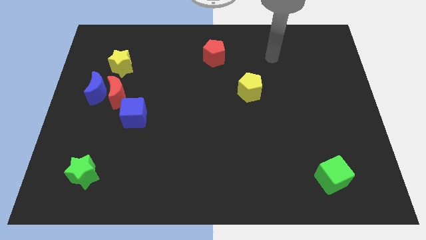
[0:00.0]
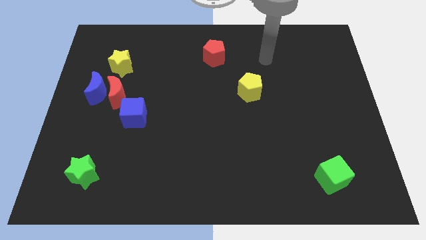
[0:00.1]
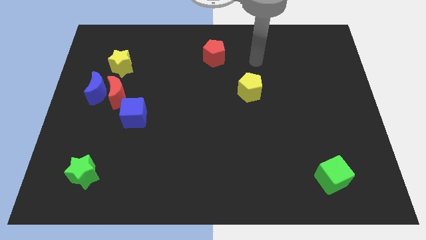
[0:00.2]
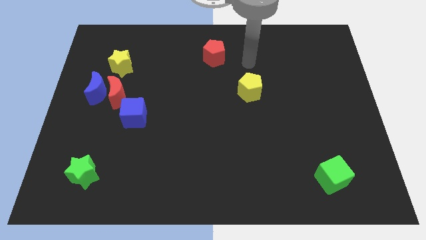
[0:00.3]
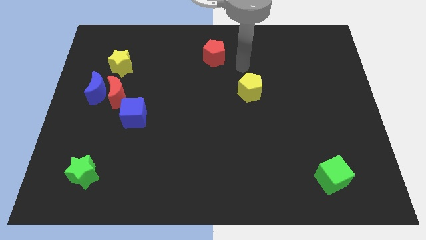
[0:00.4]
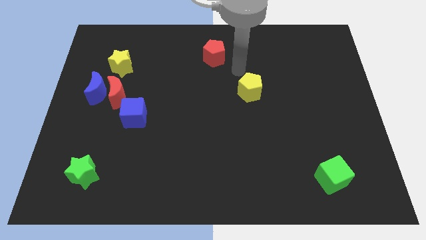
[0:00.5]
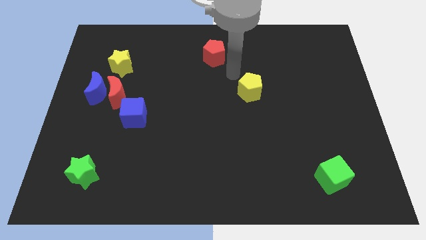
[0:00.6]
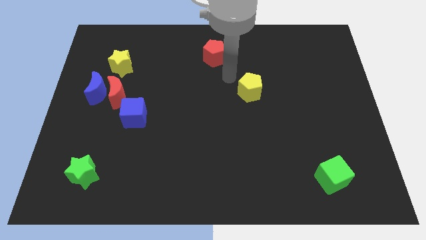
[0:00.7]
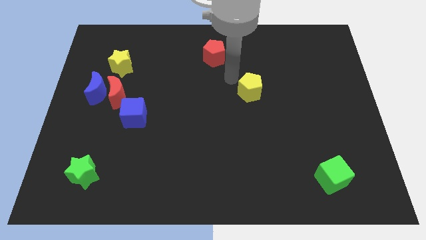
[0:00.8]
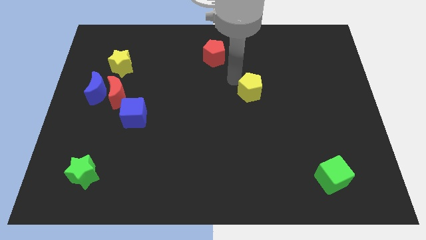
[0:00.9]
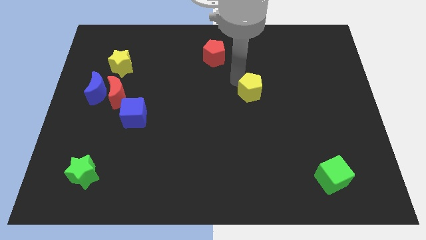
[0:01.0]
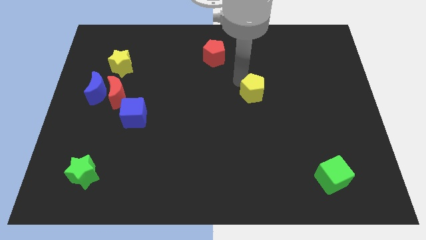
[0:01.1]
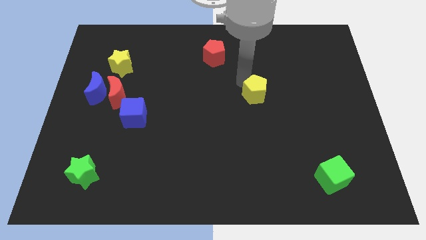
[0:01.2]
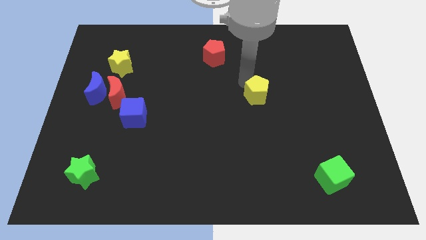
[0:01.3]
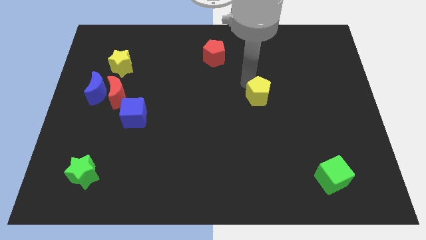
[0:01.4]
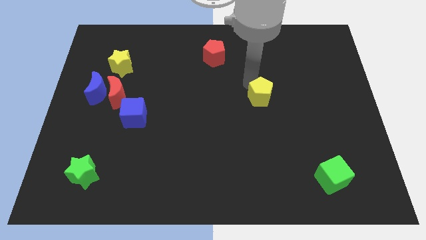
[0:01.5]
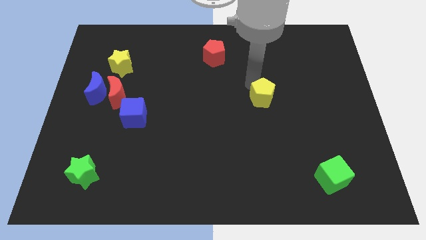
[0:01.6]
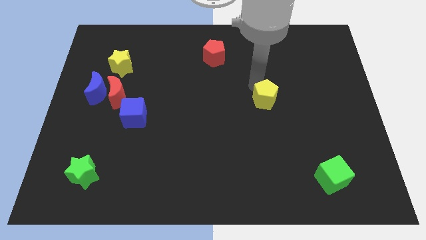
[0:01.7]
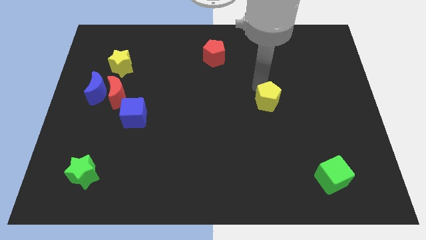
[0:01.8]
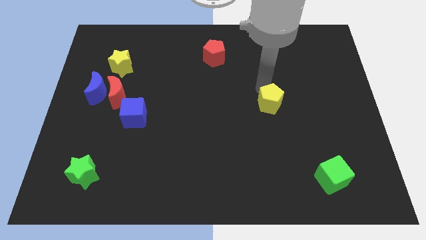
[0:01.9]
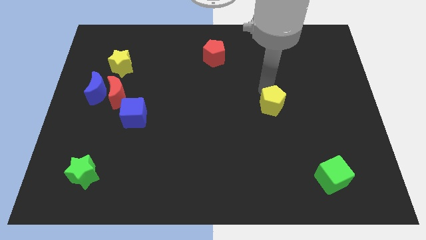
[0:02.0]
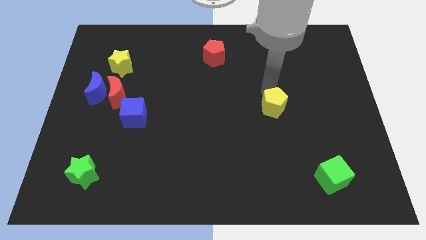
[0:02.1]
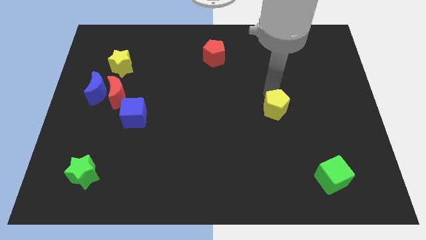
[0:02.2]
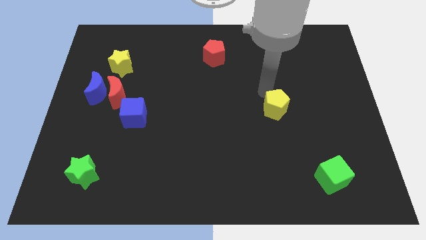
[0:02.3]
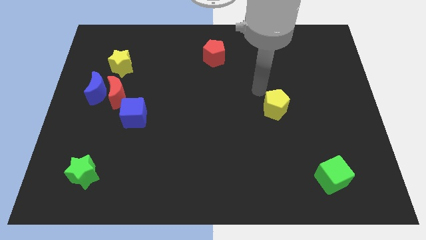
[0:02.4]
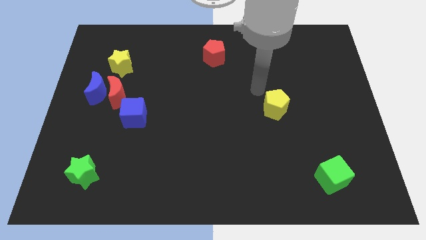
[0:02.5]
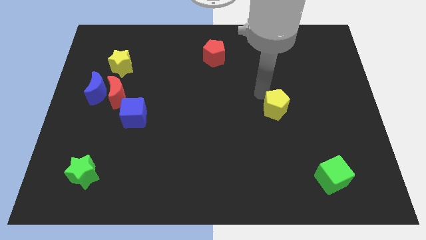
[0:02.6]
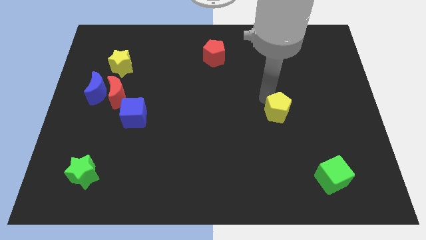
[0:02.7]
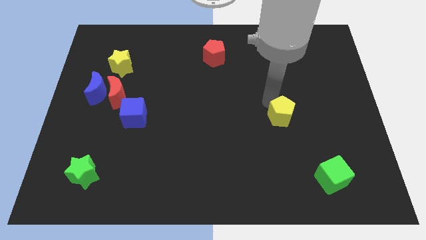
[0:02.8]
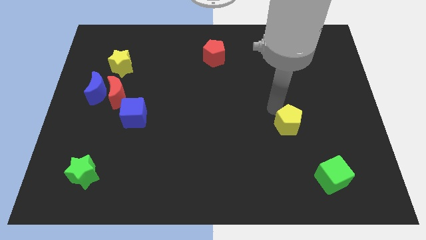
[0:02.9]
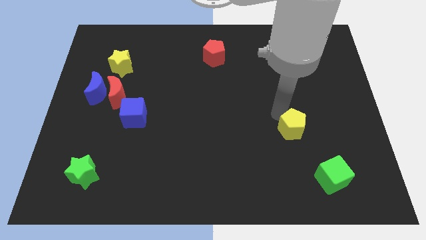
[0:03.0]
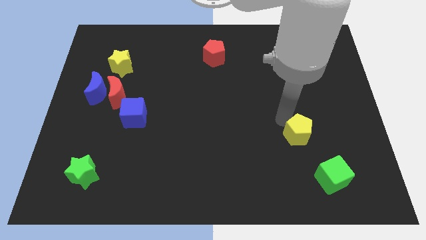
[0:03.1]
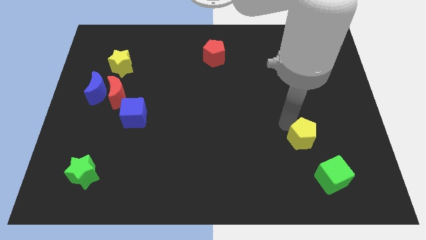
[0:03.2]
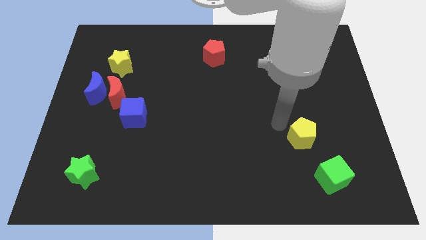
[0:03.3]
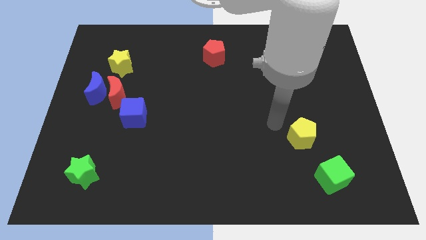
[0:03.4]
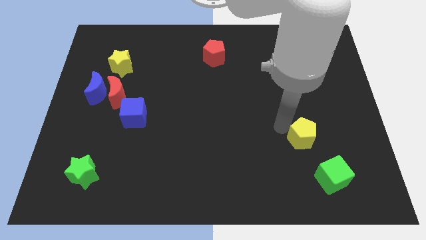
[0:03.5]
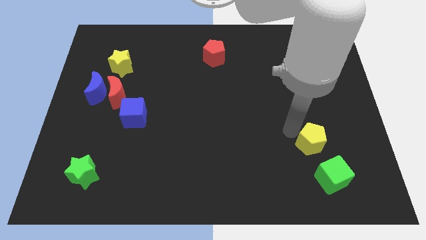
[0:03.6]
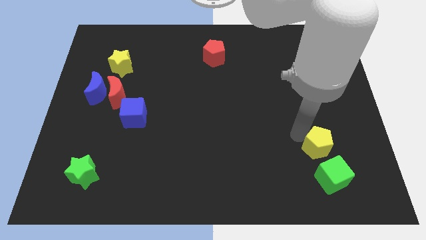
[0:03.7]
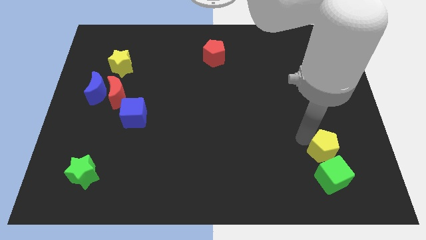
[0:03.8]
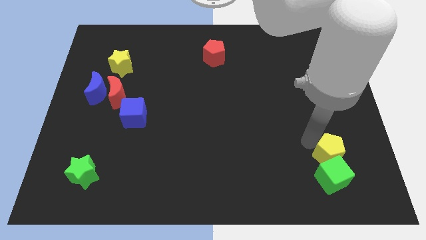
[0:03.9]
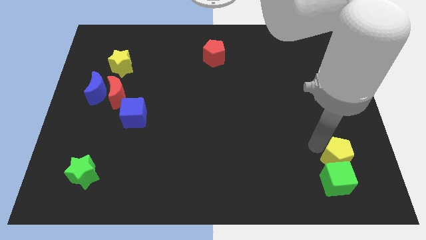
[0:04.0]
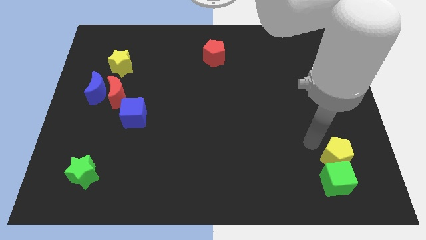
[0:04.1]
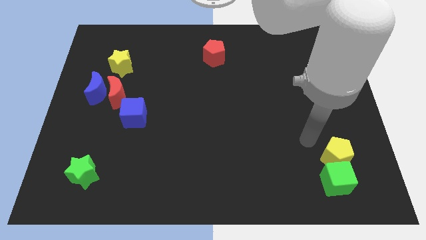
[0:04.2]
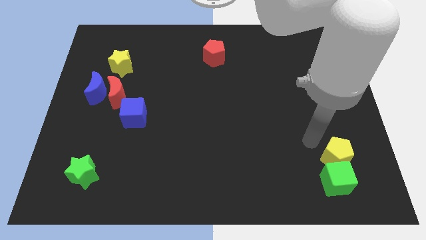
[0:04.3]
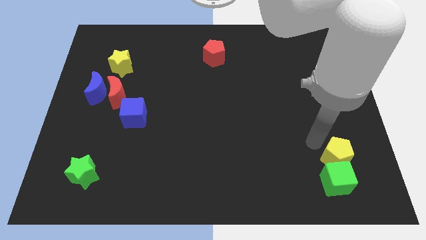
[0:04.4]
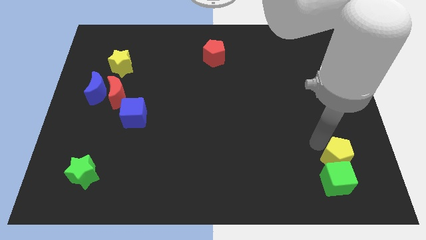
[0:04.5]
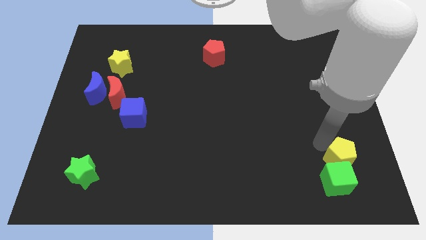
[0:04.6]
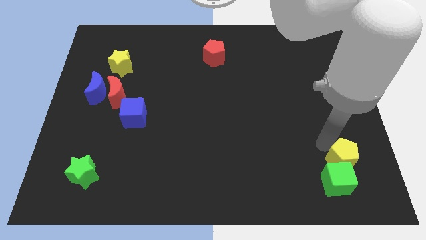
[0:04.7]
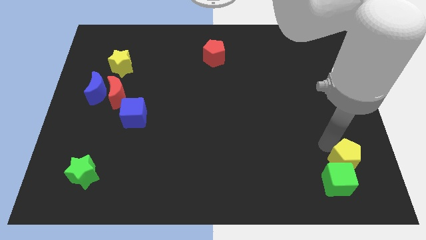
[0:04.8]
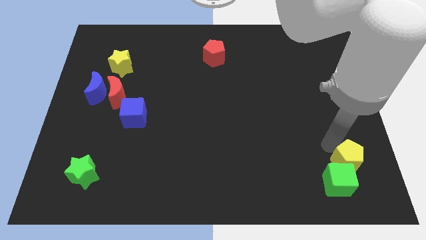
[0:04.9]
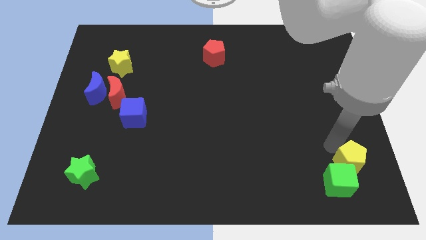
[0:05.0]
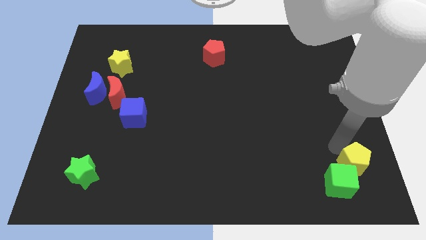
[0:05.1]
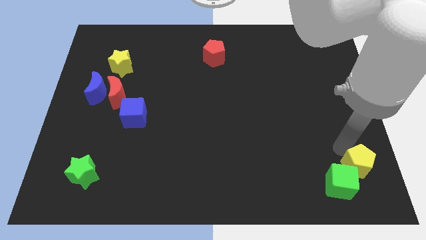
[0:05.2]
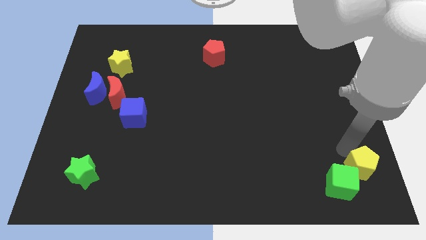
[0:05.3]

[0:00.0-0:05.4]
move the yellow pentagon to the bottom right corner

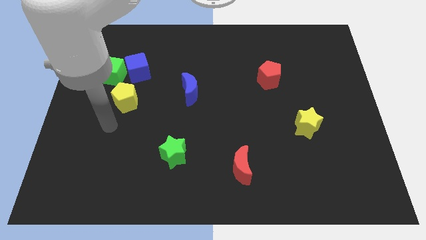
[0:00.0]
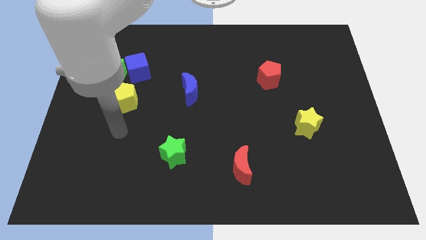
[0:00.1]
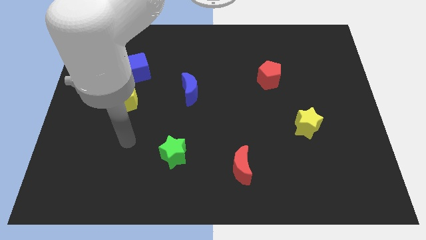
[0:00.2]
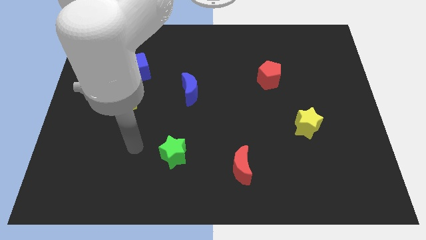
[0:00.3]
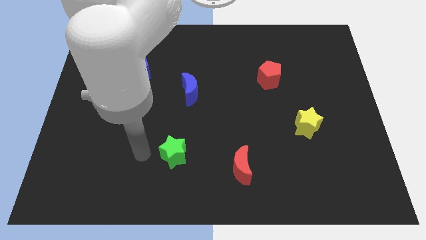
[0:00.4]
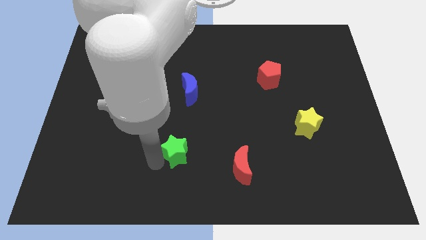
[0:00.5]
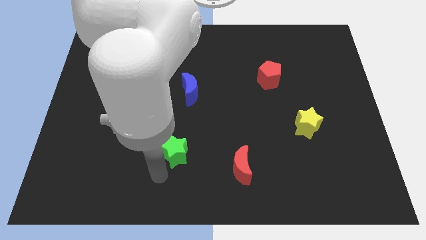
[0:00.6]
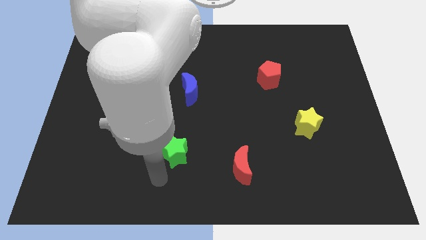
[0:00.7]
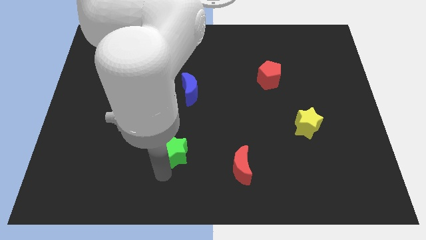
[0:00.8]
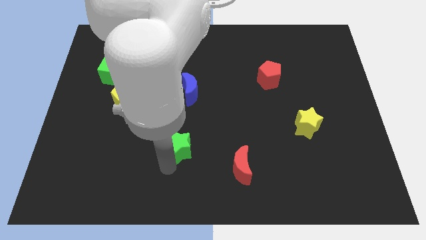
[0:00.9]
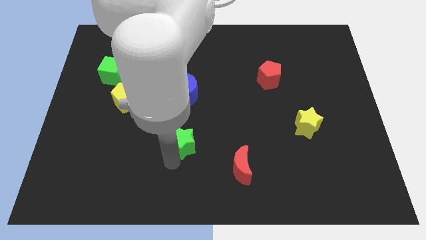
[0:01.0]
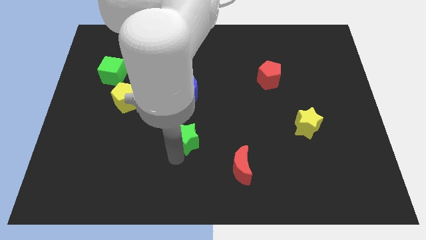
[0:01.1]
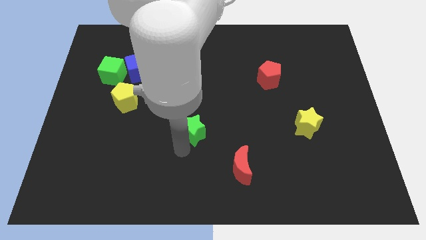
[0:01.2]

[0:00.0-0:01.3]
put the green star to the center
